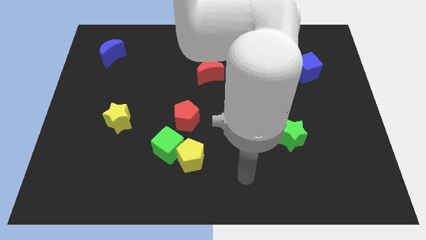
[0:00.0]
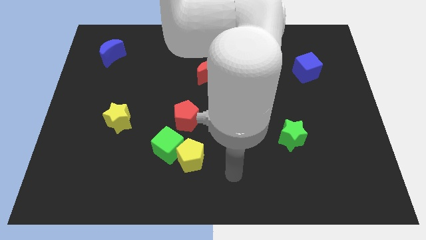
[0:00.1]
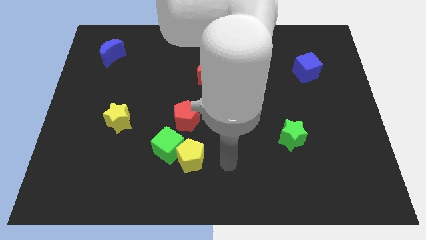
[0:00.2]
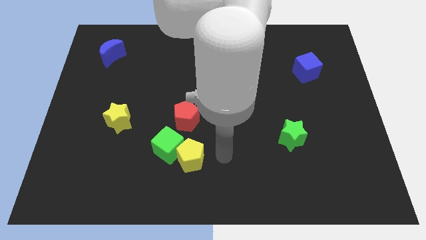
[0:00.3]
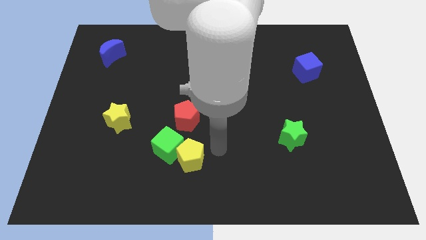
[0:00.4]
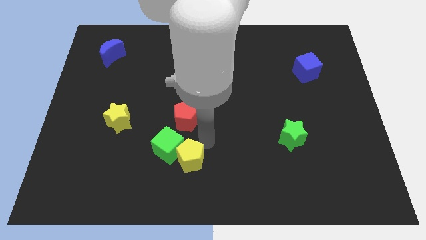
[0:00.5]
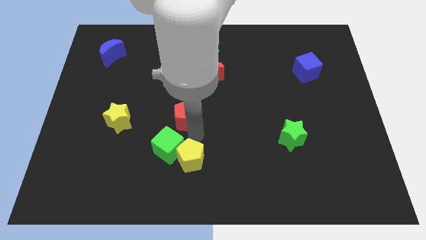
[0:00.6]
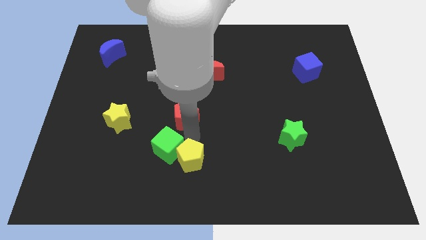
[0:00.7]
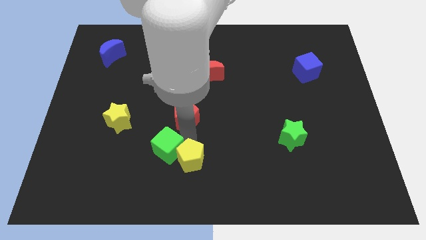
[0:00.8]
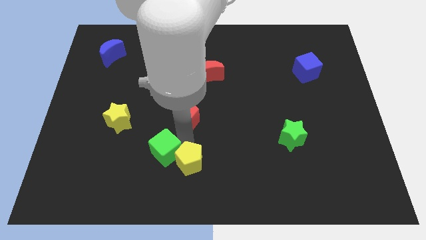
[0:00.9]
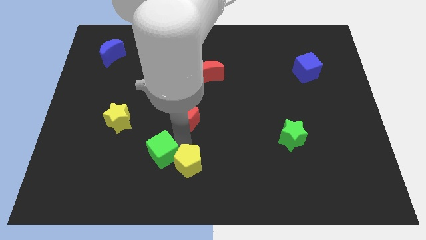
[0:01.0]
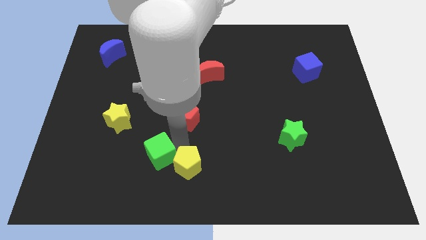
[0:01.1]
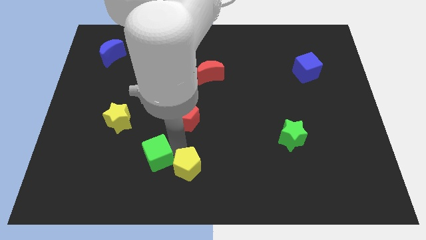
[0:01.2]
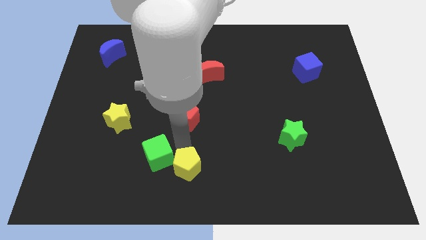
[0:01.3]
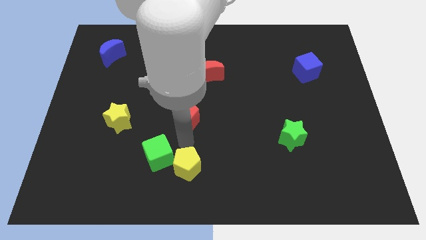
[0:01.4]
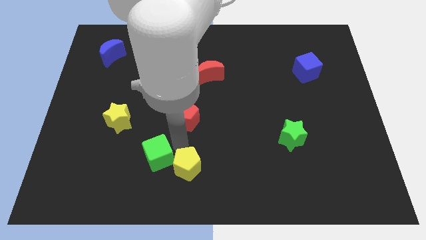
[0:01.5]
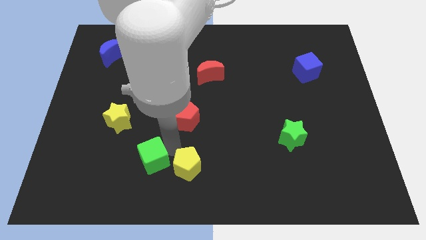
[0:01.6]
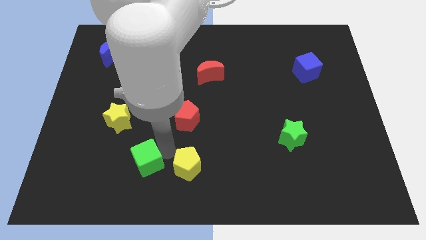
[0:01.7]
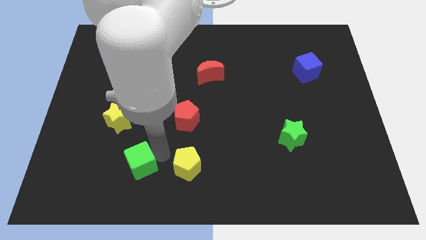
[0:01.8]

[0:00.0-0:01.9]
move the green cube away from the yellow pentagon and red pentagon

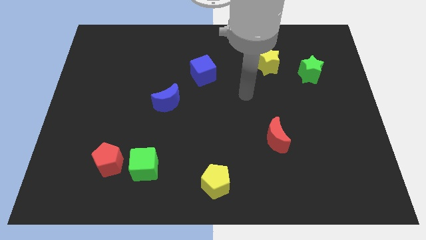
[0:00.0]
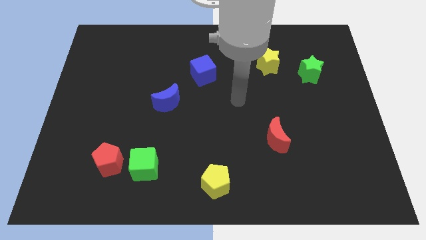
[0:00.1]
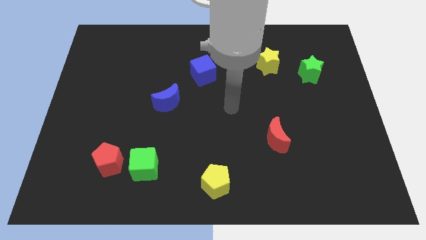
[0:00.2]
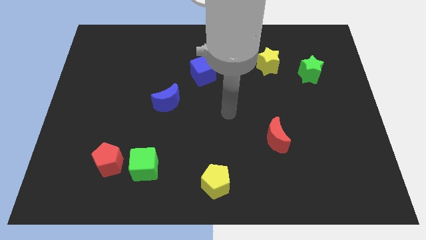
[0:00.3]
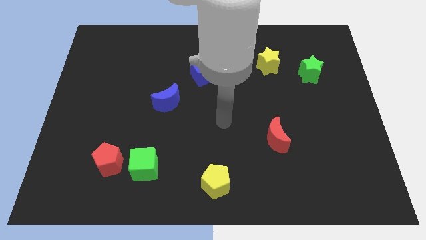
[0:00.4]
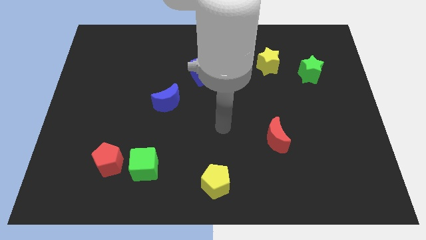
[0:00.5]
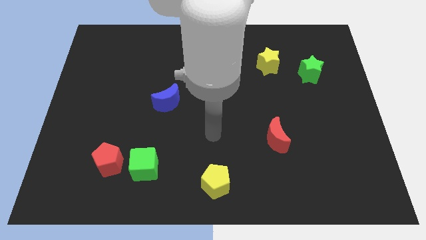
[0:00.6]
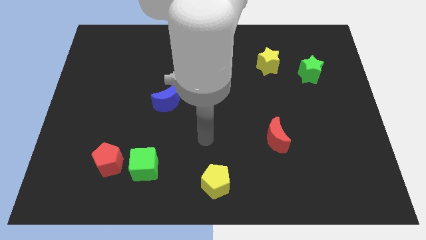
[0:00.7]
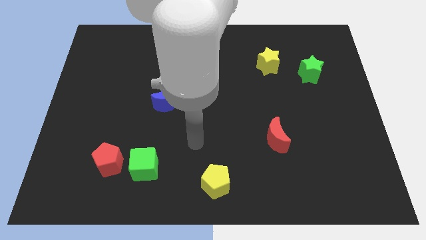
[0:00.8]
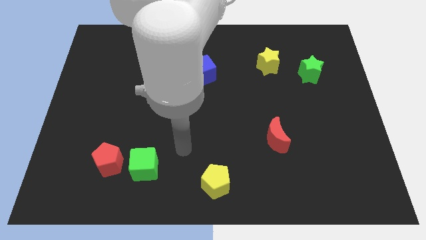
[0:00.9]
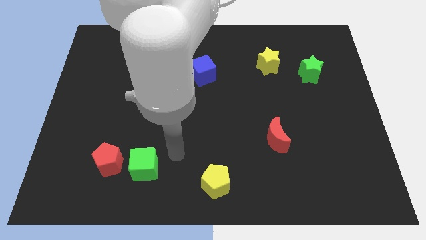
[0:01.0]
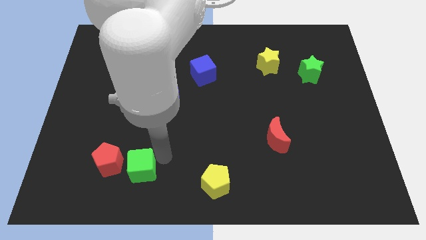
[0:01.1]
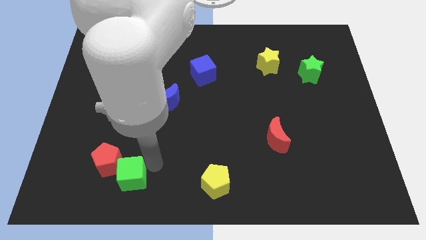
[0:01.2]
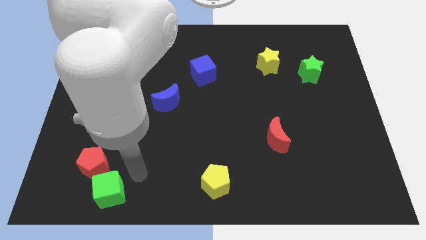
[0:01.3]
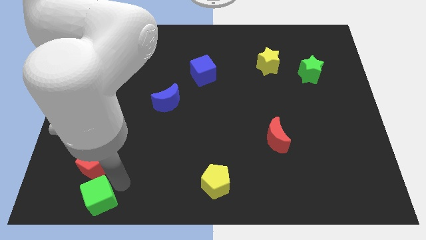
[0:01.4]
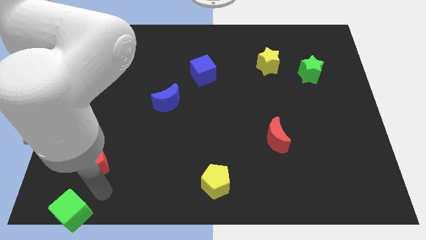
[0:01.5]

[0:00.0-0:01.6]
separate the red pentagon from the green cube

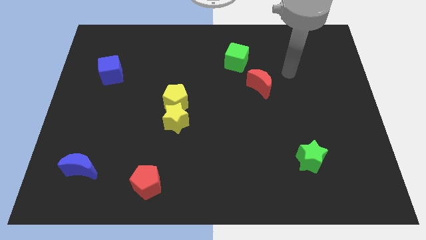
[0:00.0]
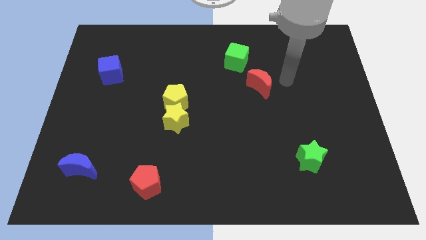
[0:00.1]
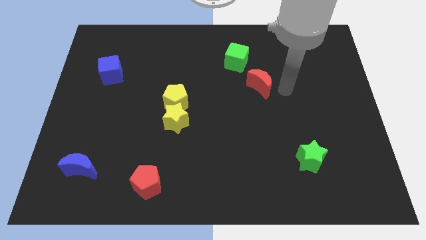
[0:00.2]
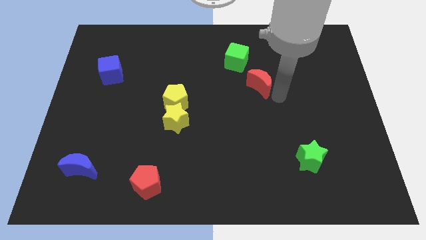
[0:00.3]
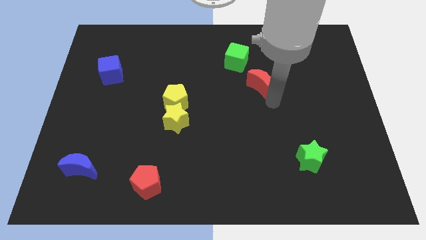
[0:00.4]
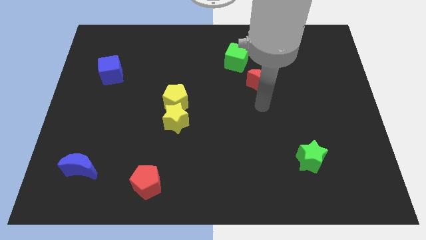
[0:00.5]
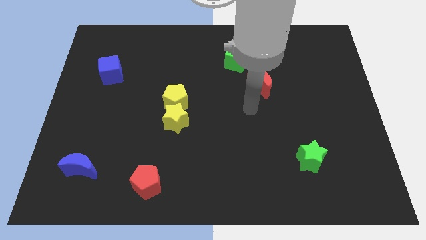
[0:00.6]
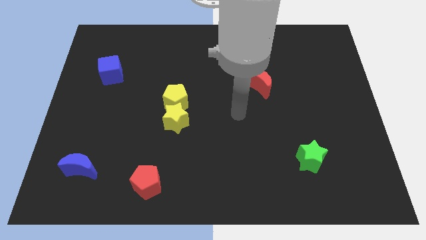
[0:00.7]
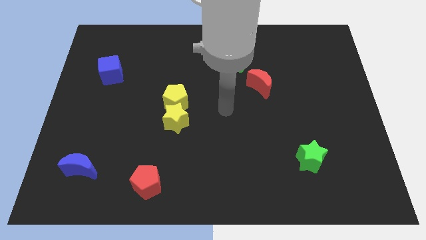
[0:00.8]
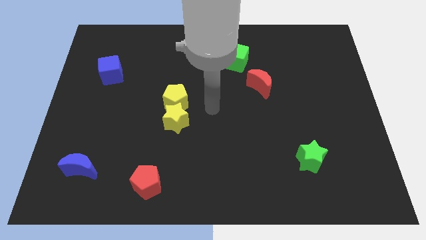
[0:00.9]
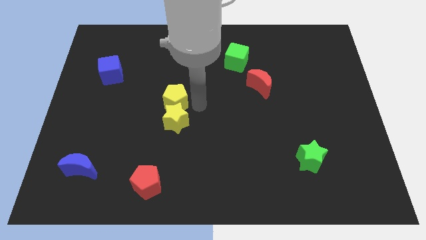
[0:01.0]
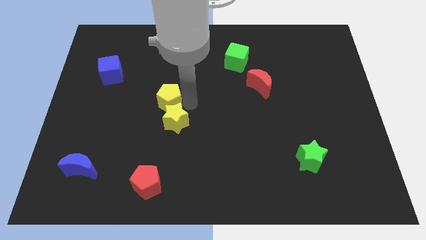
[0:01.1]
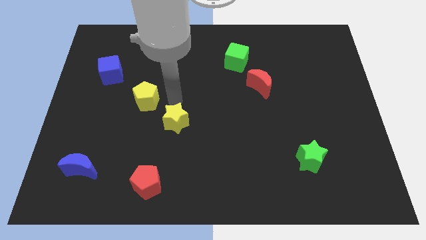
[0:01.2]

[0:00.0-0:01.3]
move the yellow star away from the yellow pentagon

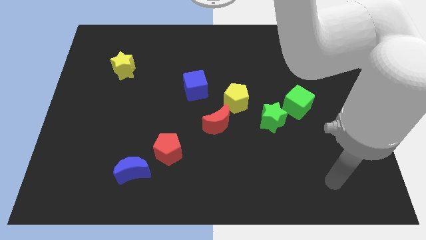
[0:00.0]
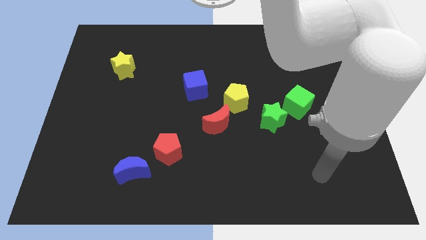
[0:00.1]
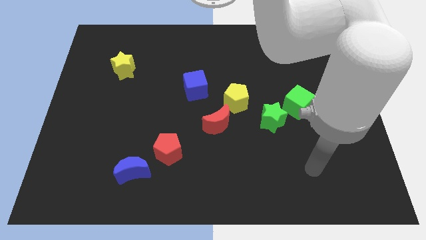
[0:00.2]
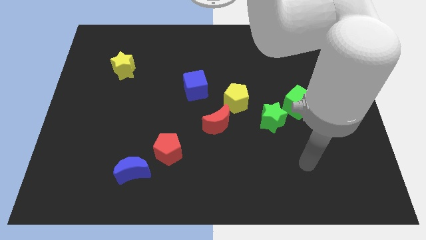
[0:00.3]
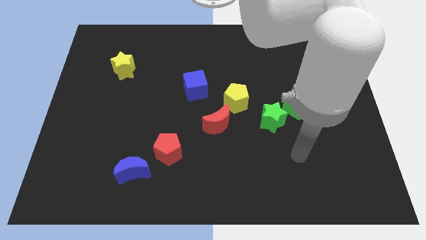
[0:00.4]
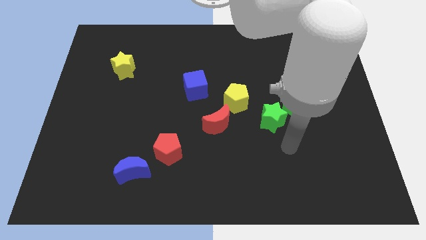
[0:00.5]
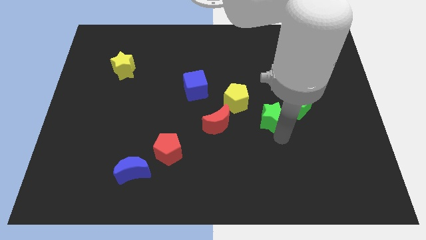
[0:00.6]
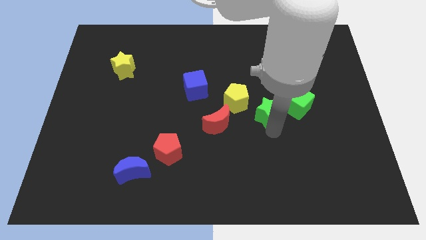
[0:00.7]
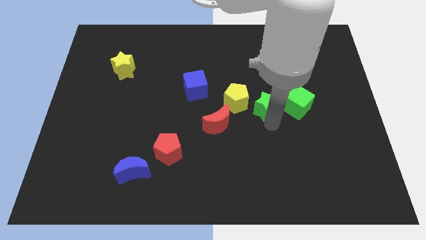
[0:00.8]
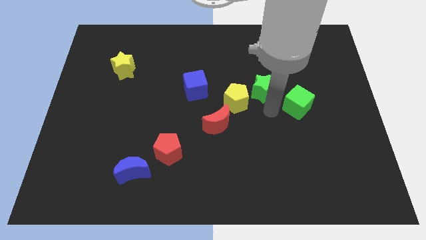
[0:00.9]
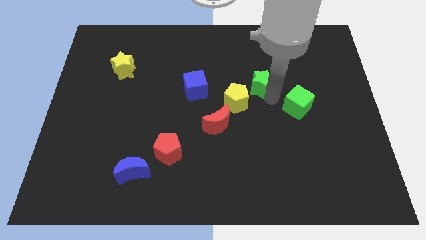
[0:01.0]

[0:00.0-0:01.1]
separate the green cube from the green star

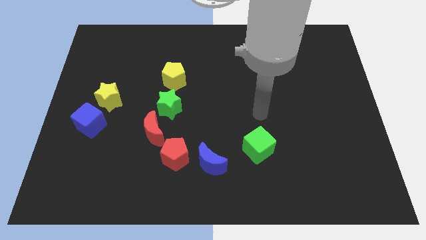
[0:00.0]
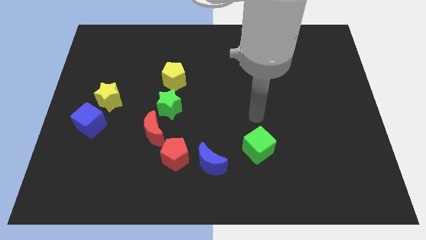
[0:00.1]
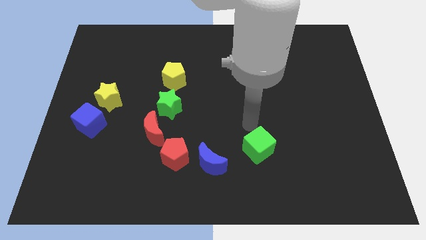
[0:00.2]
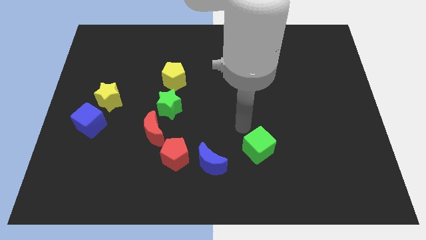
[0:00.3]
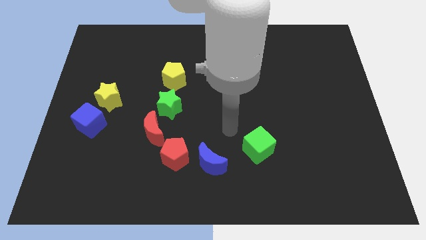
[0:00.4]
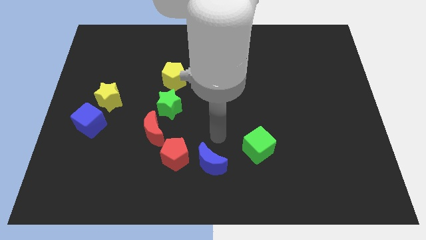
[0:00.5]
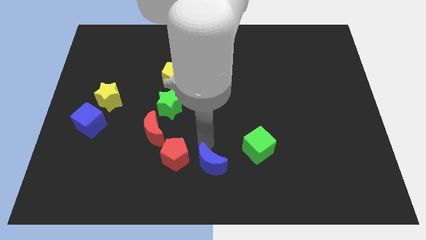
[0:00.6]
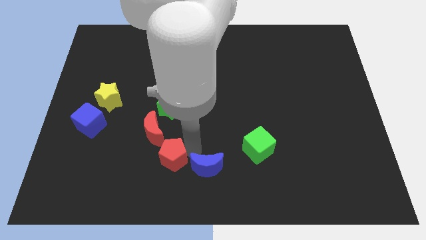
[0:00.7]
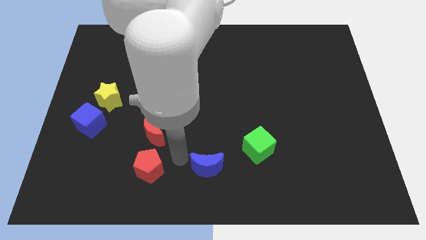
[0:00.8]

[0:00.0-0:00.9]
pull the blue moon apart from the red pentagon

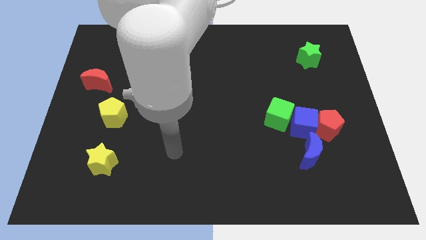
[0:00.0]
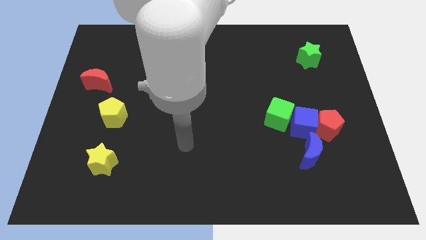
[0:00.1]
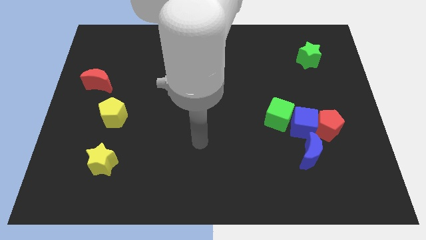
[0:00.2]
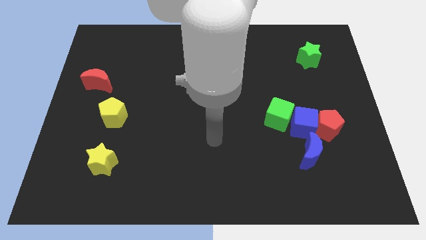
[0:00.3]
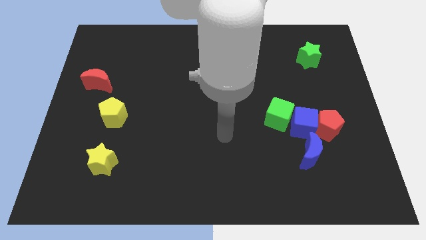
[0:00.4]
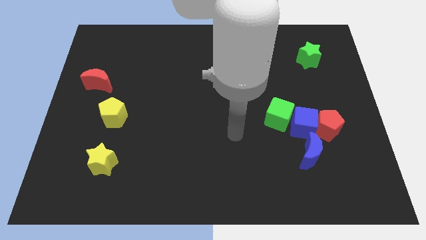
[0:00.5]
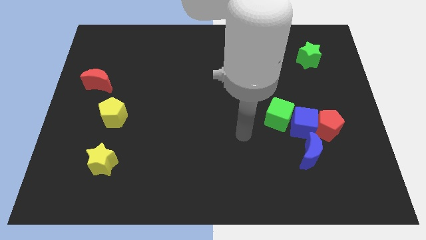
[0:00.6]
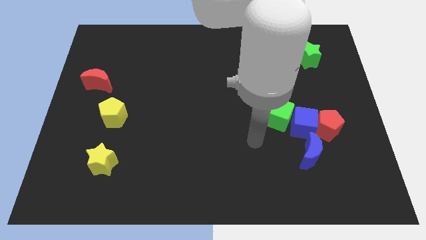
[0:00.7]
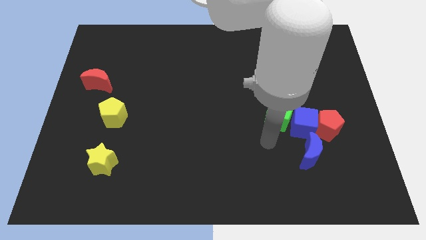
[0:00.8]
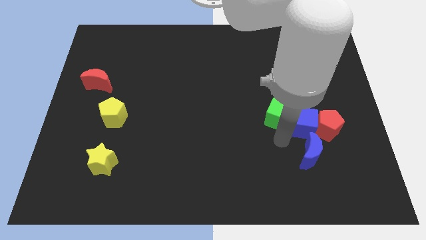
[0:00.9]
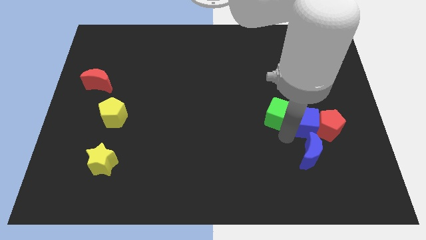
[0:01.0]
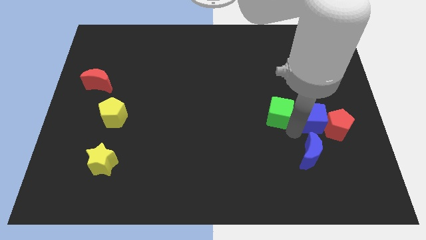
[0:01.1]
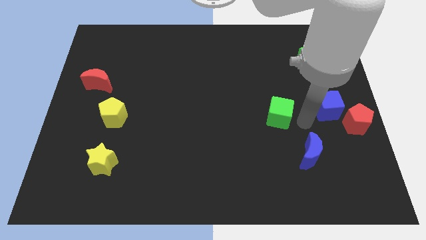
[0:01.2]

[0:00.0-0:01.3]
move the green cube away from the blue cube

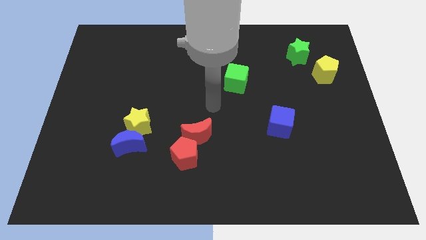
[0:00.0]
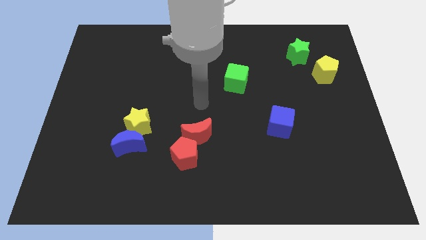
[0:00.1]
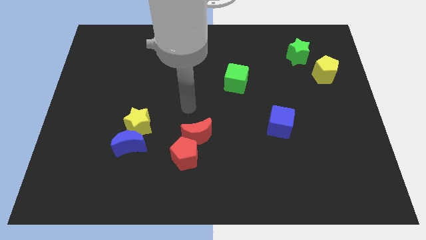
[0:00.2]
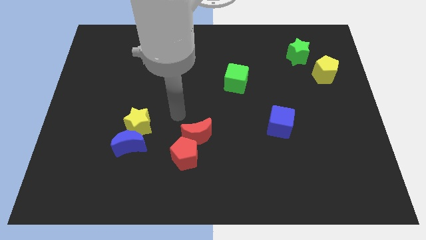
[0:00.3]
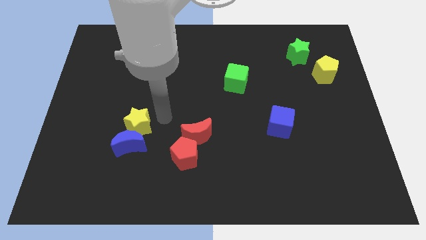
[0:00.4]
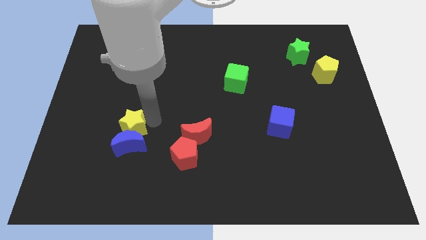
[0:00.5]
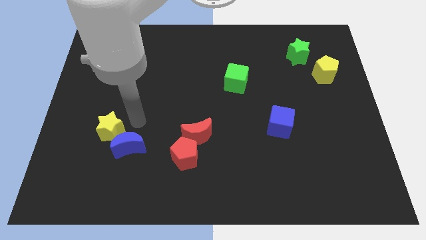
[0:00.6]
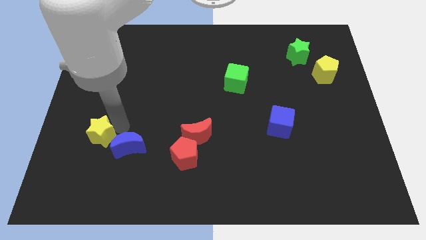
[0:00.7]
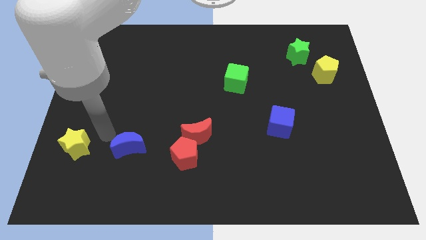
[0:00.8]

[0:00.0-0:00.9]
move the blue moon away from the yellow star

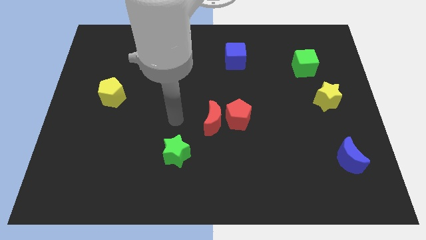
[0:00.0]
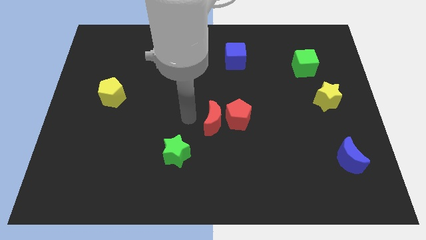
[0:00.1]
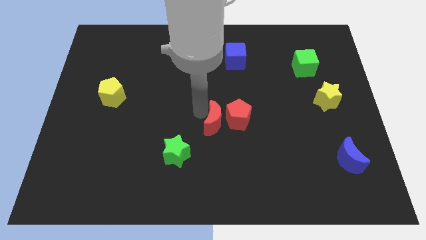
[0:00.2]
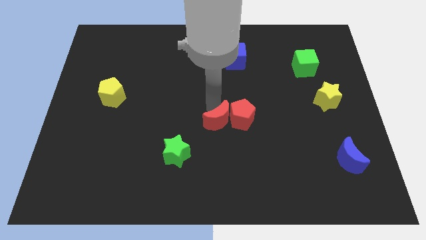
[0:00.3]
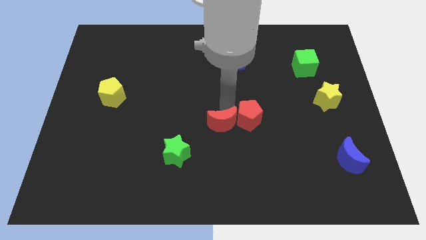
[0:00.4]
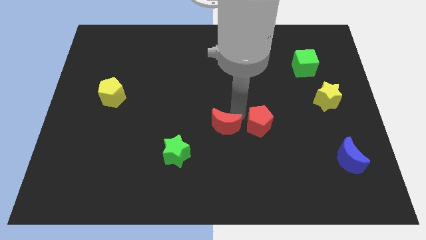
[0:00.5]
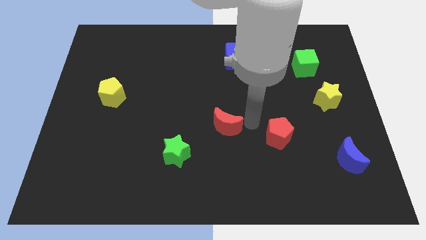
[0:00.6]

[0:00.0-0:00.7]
pull the red moon apart from the red pentagon
